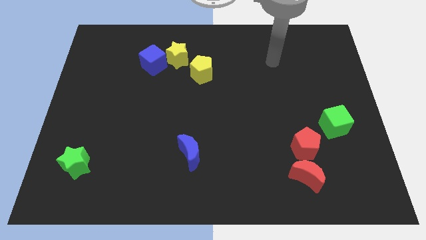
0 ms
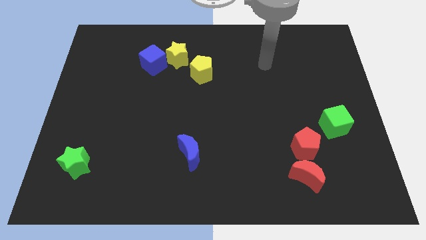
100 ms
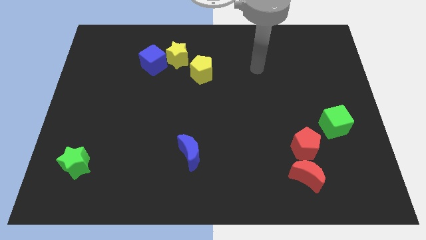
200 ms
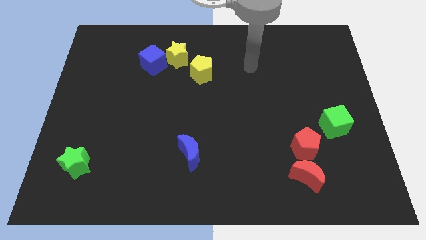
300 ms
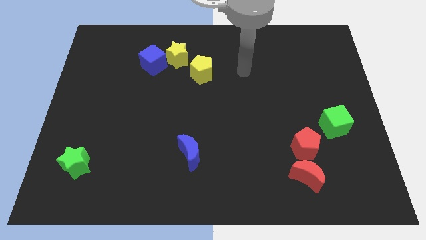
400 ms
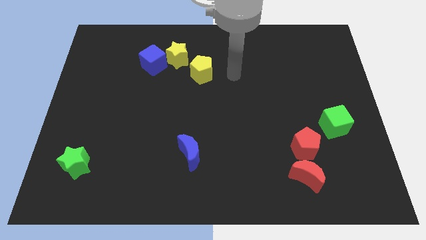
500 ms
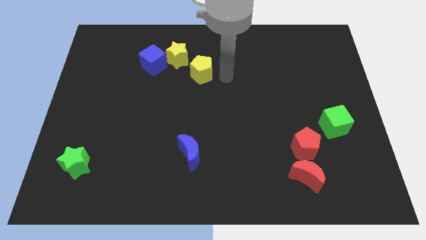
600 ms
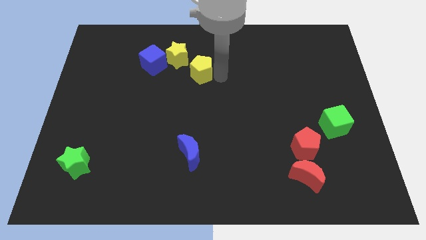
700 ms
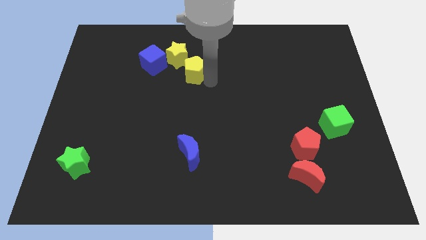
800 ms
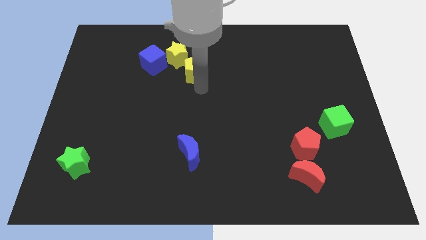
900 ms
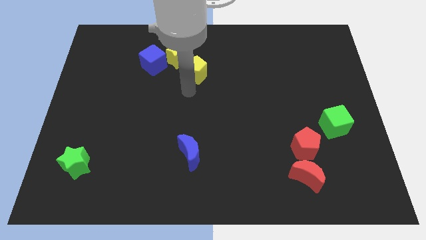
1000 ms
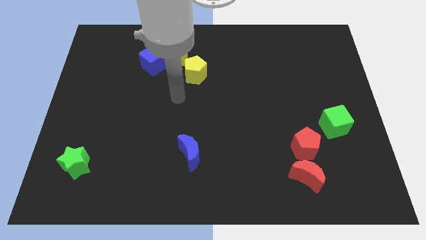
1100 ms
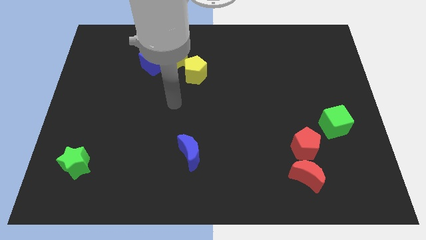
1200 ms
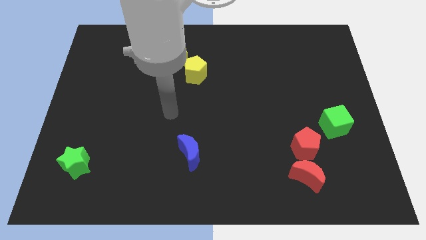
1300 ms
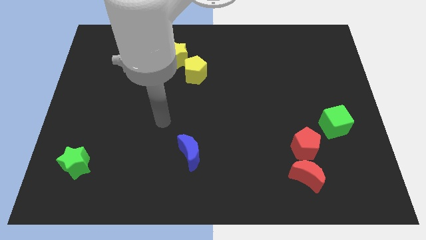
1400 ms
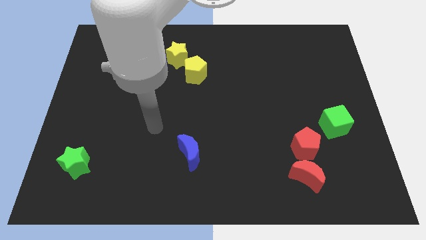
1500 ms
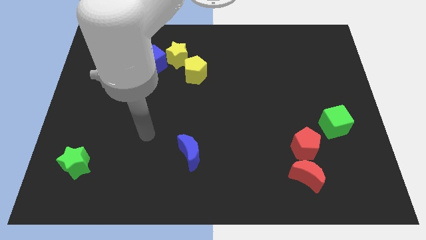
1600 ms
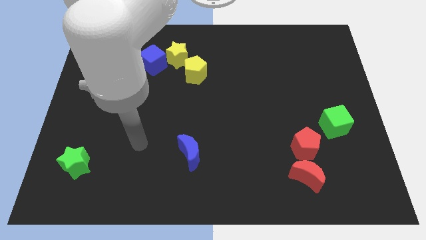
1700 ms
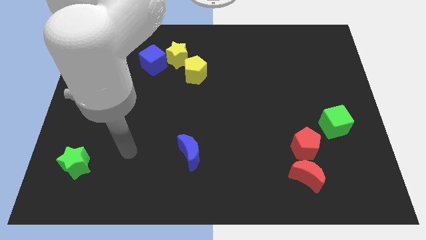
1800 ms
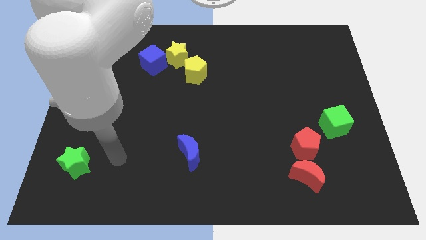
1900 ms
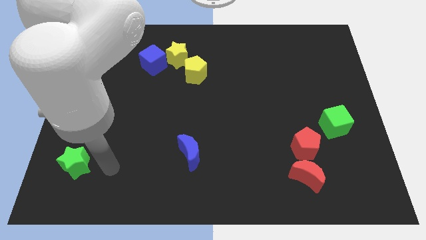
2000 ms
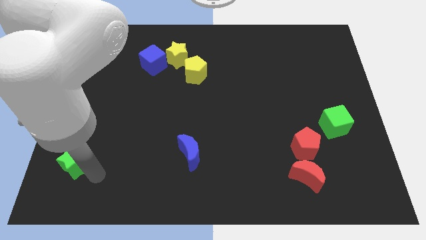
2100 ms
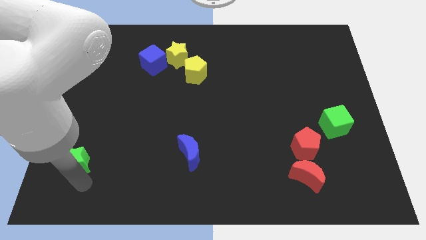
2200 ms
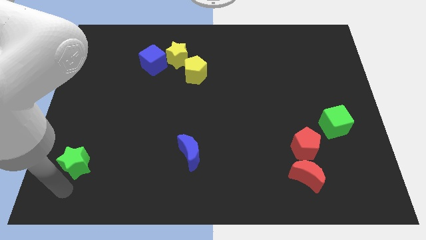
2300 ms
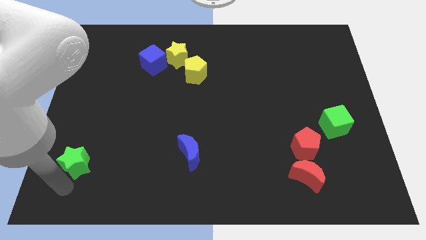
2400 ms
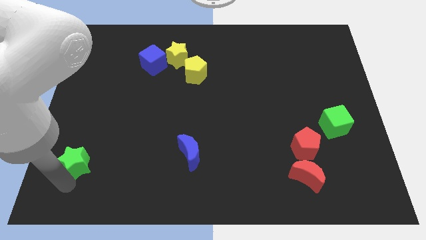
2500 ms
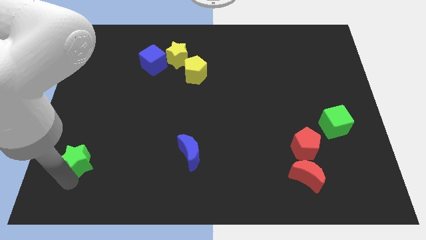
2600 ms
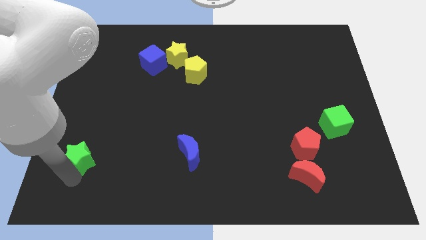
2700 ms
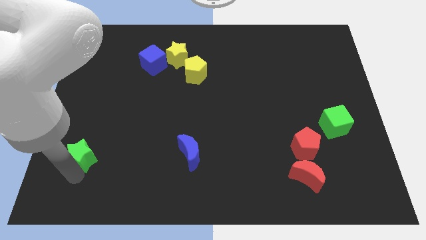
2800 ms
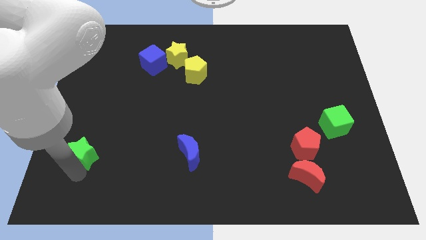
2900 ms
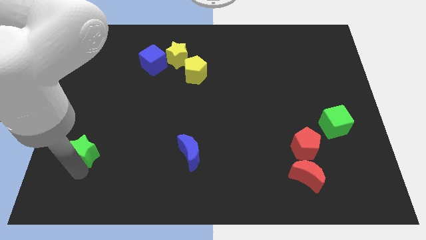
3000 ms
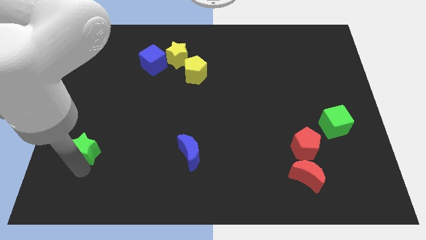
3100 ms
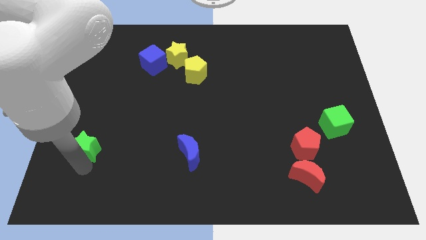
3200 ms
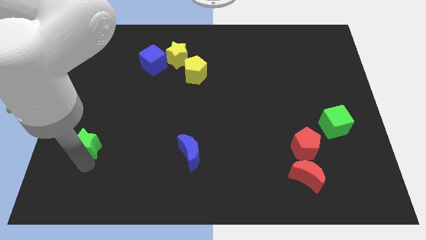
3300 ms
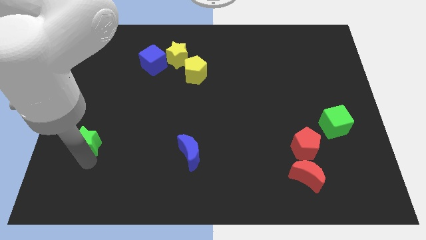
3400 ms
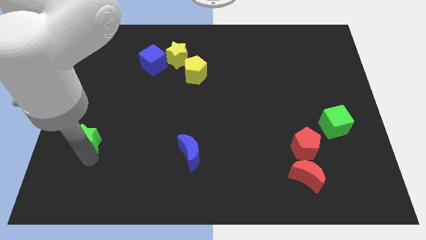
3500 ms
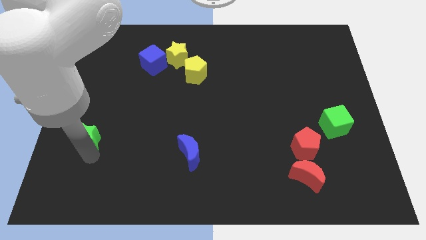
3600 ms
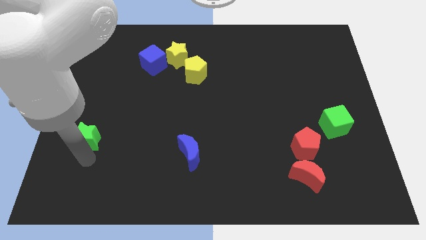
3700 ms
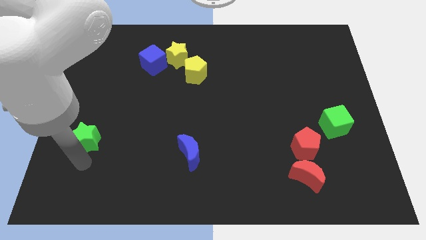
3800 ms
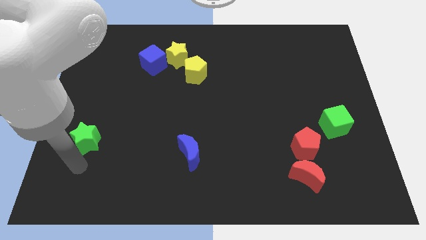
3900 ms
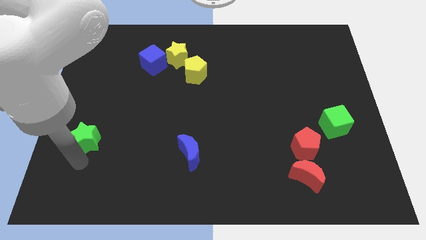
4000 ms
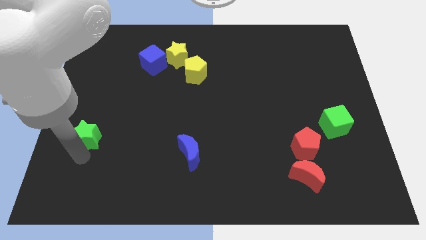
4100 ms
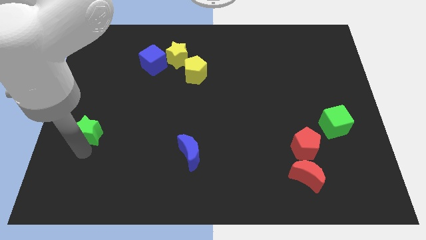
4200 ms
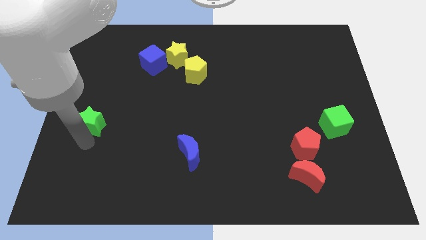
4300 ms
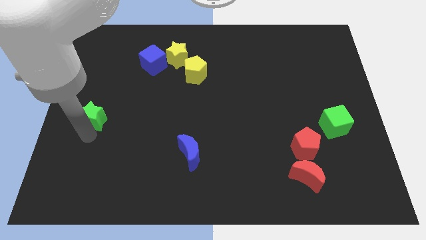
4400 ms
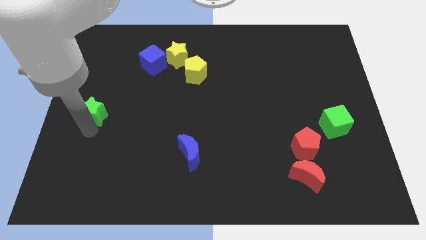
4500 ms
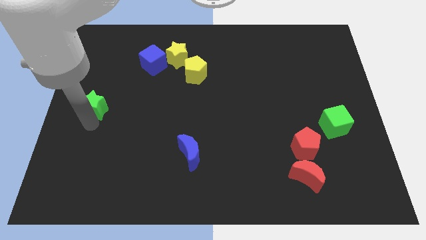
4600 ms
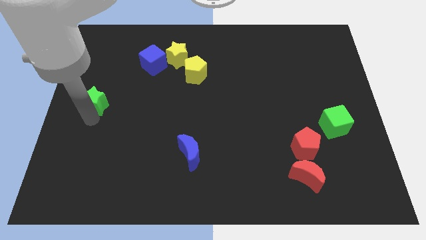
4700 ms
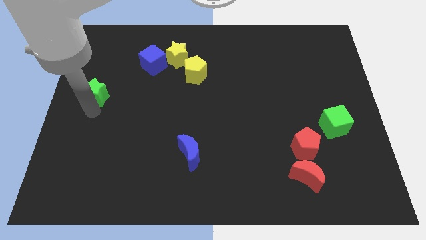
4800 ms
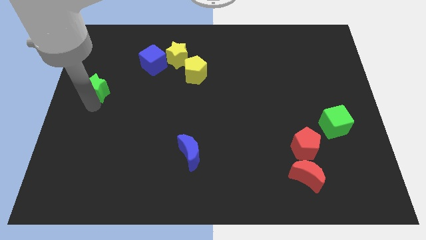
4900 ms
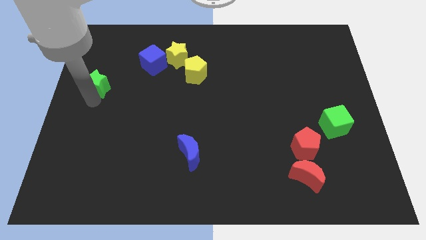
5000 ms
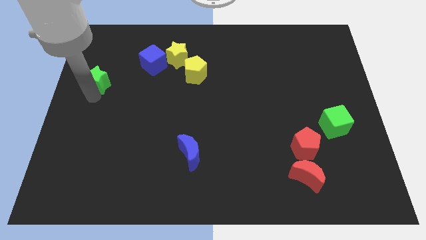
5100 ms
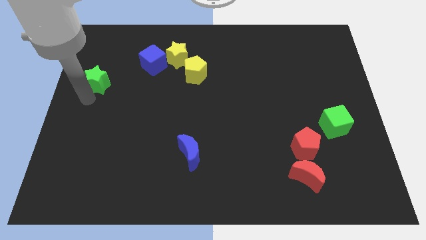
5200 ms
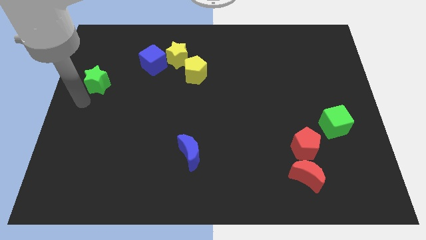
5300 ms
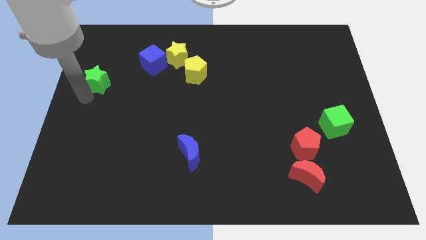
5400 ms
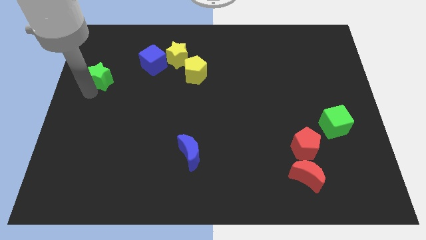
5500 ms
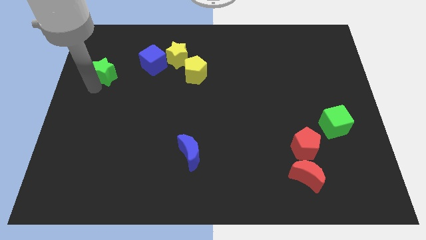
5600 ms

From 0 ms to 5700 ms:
move the green star to the left of the blue cube

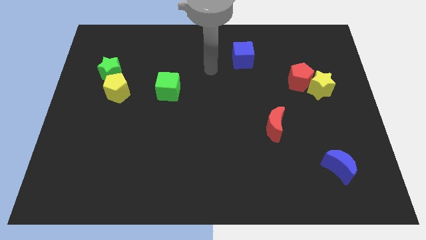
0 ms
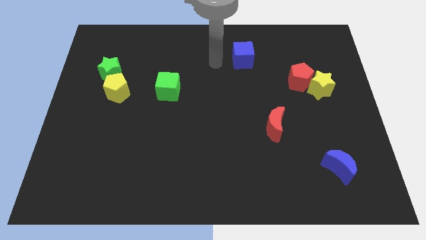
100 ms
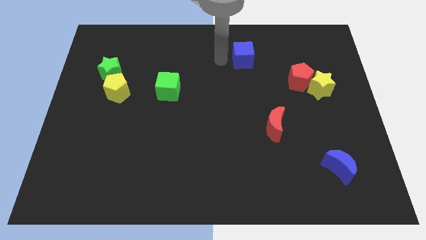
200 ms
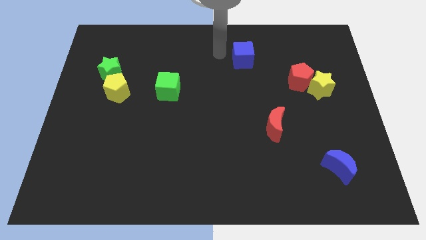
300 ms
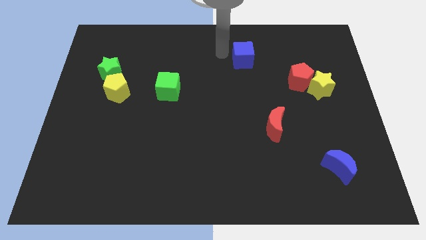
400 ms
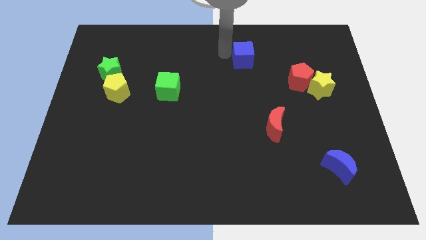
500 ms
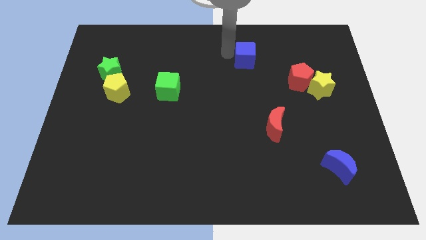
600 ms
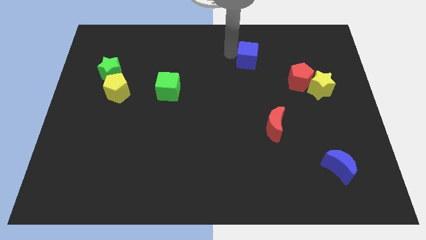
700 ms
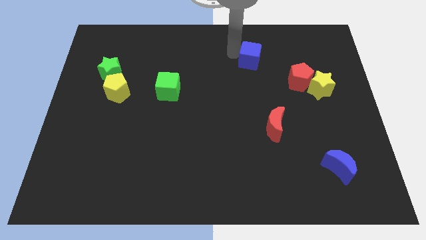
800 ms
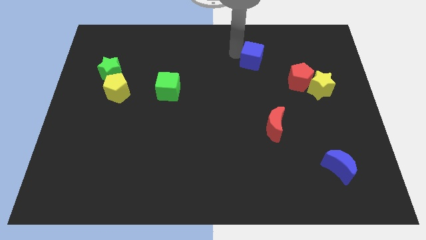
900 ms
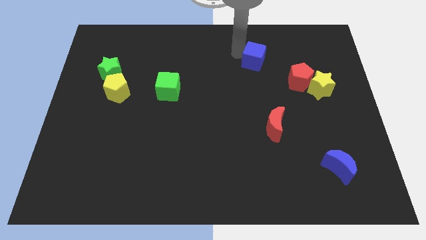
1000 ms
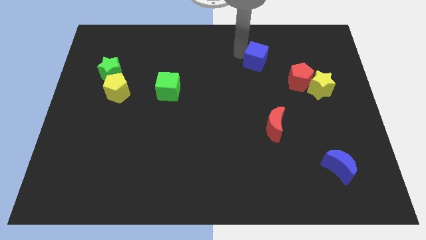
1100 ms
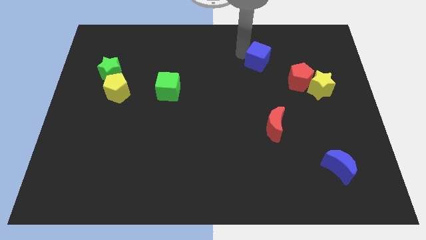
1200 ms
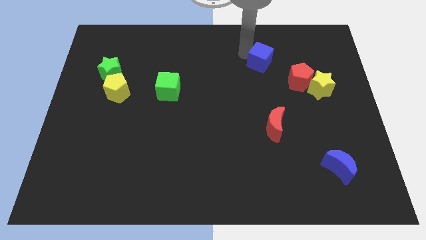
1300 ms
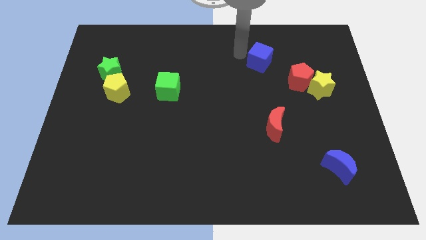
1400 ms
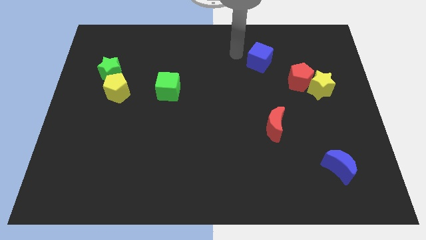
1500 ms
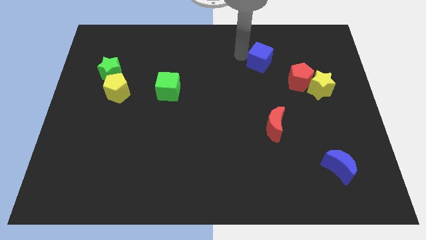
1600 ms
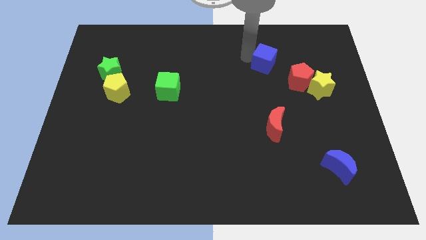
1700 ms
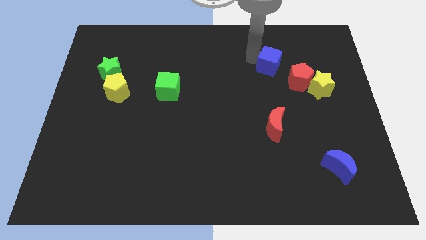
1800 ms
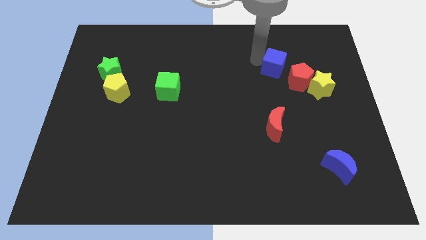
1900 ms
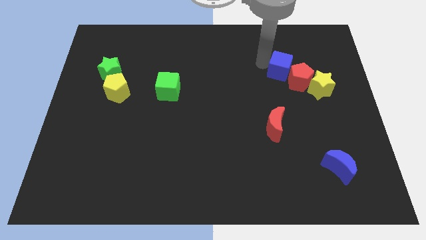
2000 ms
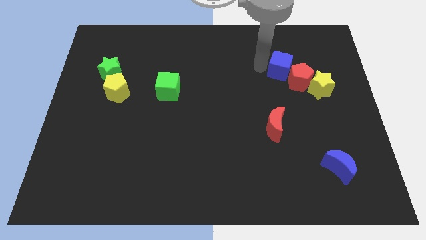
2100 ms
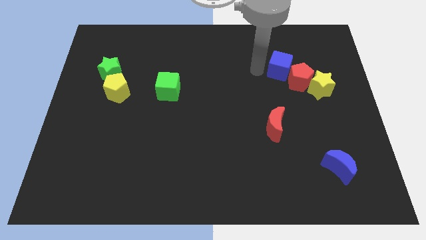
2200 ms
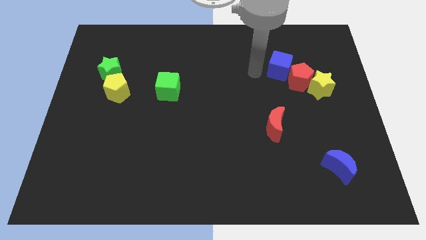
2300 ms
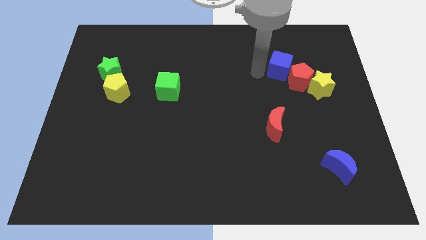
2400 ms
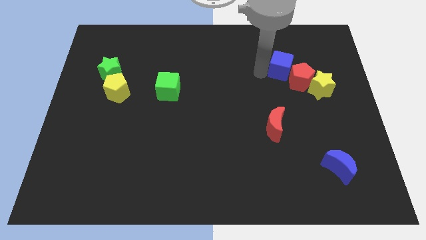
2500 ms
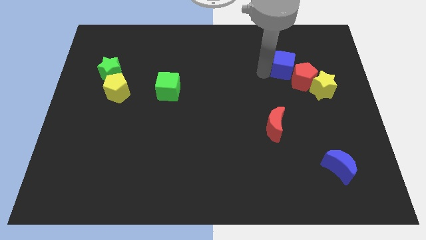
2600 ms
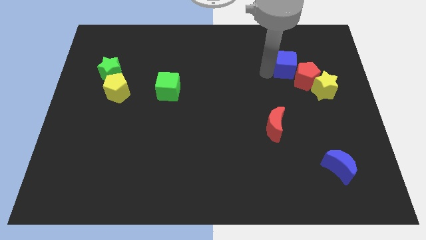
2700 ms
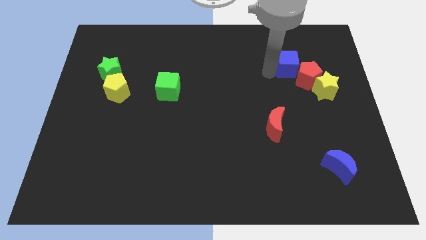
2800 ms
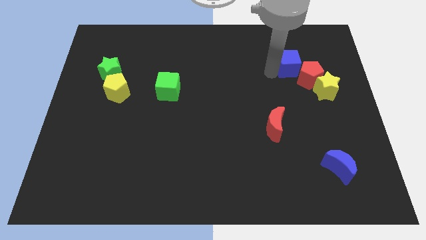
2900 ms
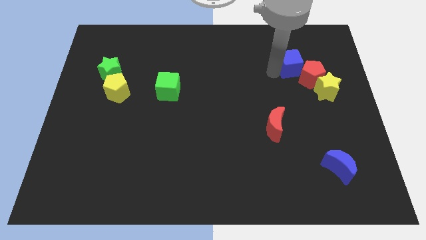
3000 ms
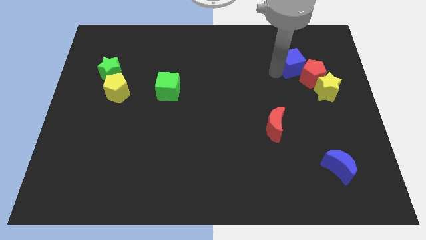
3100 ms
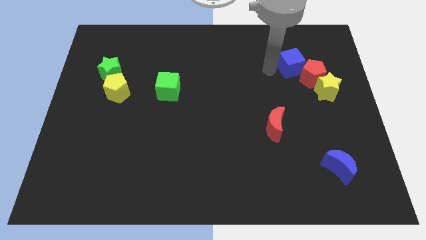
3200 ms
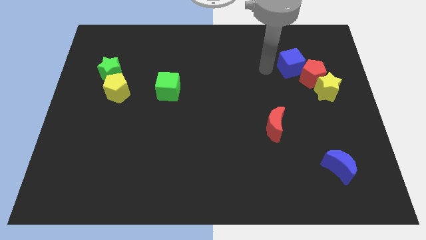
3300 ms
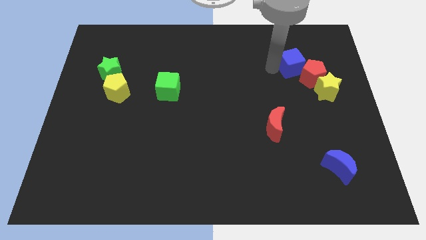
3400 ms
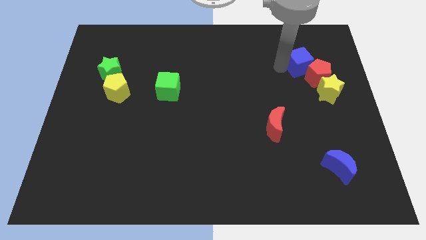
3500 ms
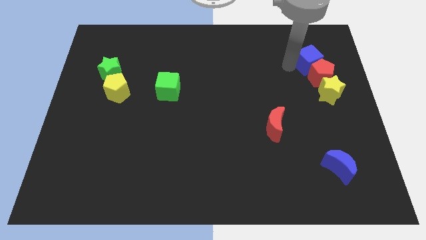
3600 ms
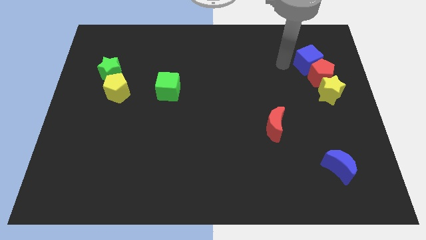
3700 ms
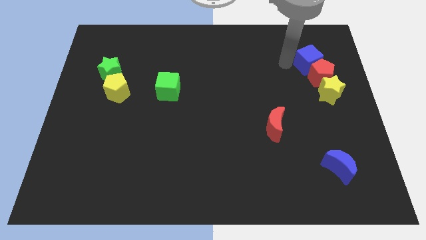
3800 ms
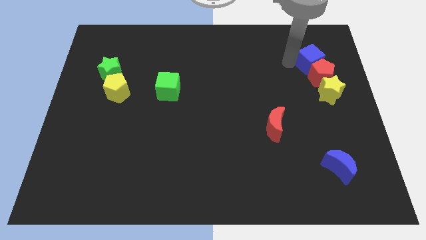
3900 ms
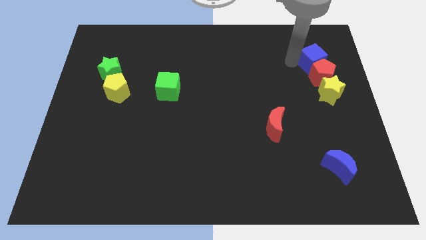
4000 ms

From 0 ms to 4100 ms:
slide the blue cube diagonally up and to the right of the red pentagon
